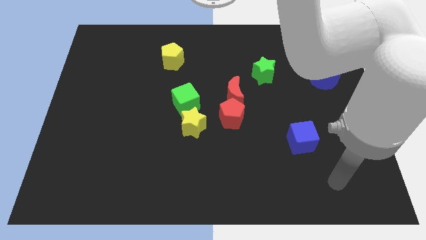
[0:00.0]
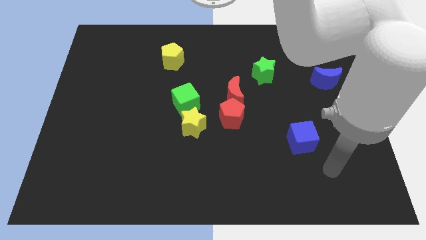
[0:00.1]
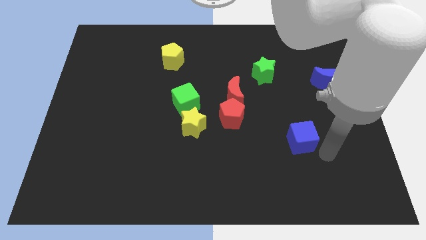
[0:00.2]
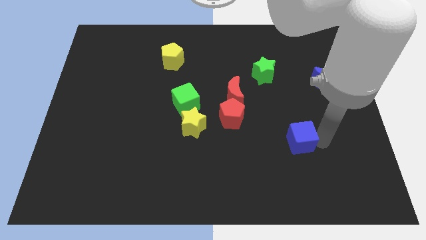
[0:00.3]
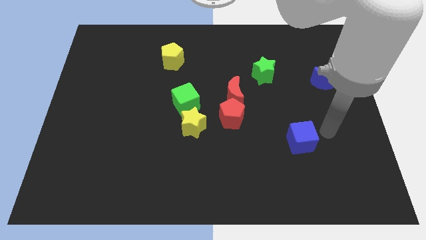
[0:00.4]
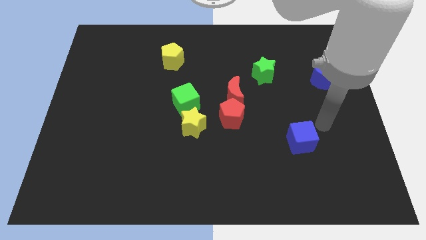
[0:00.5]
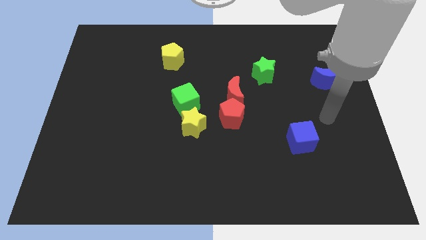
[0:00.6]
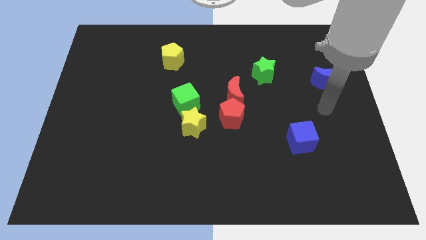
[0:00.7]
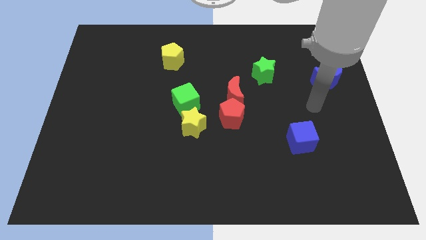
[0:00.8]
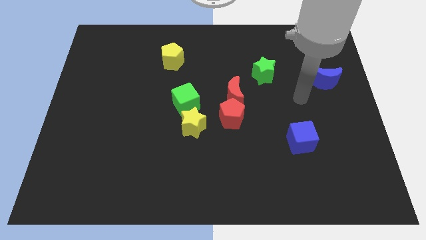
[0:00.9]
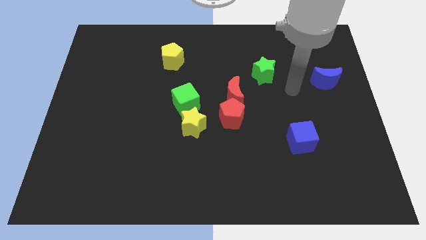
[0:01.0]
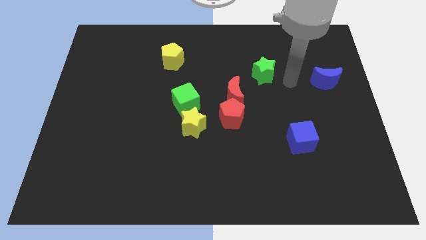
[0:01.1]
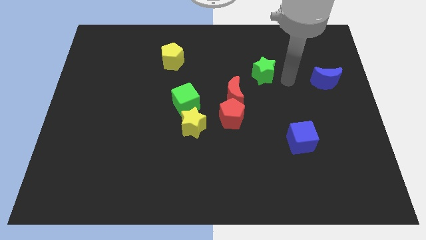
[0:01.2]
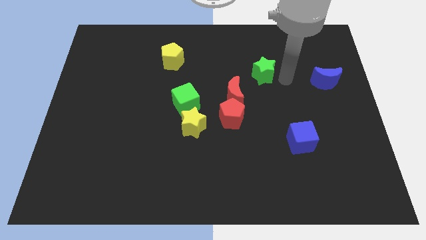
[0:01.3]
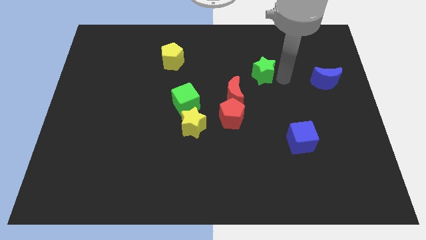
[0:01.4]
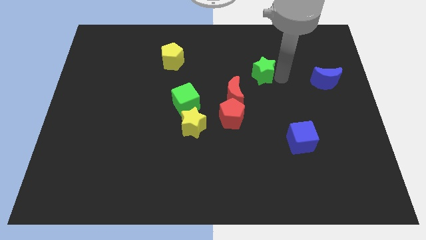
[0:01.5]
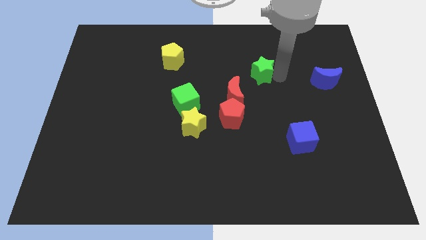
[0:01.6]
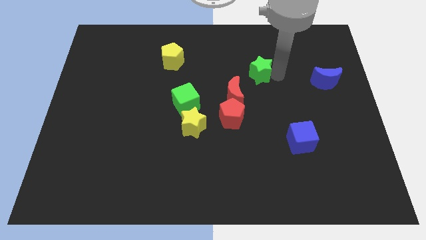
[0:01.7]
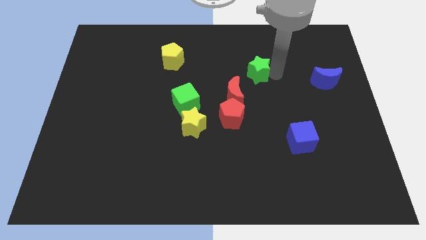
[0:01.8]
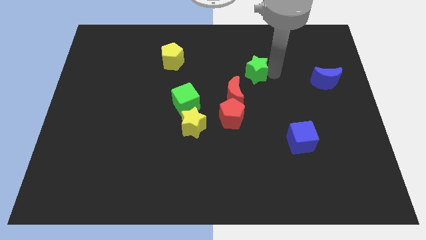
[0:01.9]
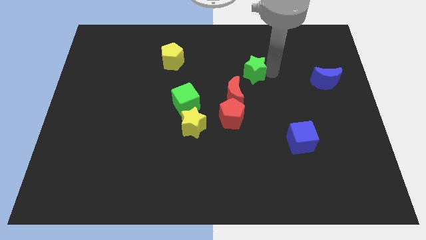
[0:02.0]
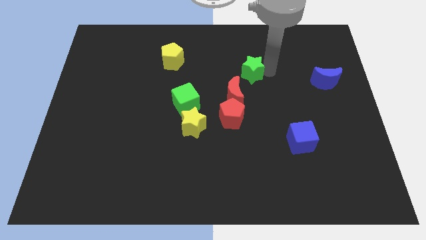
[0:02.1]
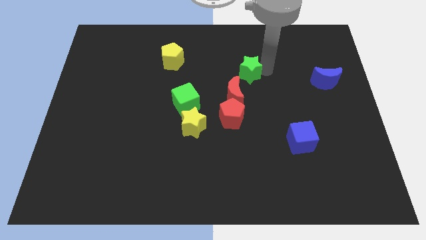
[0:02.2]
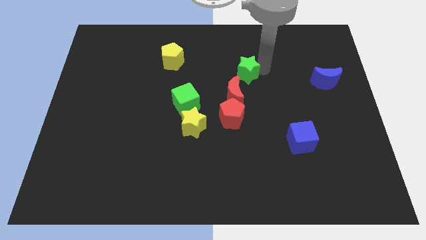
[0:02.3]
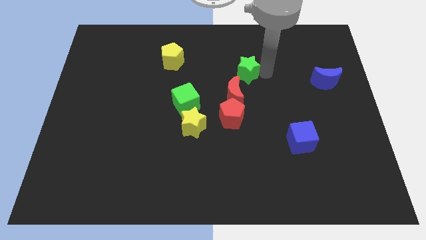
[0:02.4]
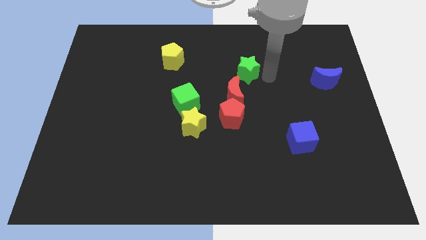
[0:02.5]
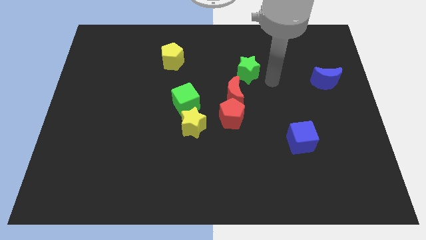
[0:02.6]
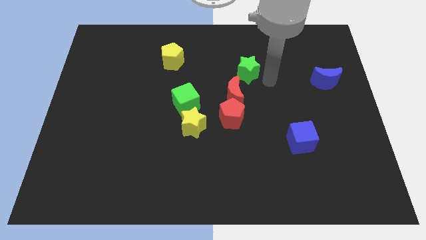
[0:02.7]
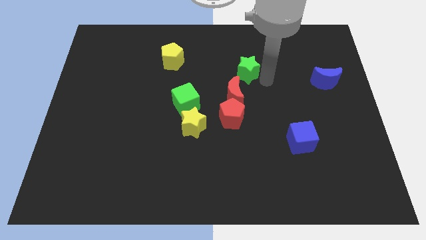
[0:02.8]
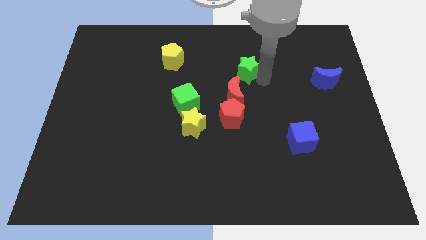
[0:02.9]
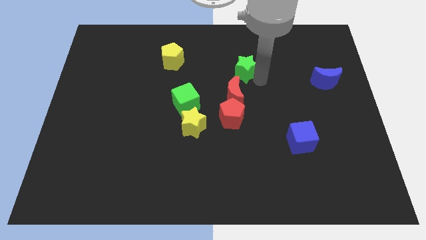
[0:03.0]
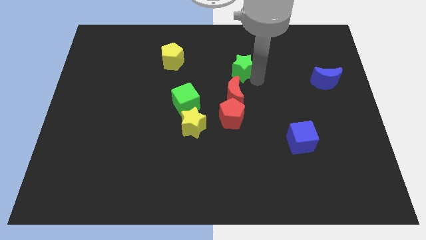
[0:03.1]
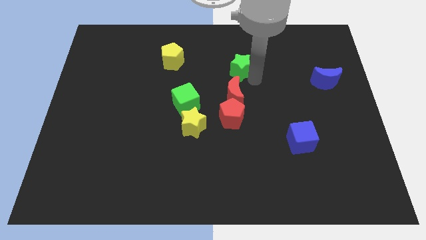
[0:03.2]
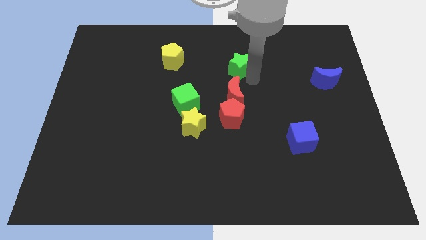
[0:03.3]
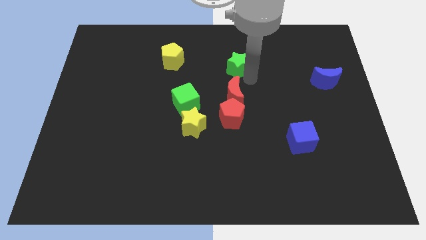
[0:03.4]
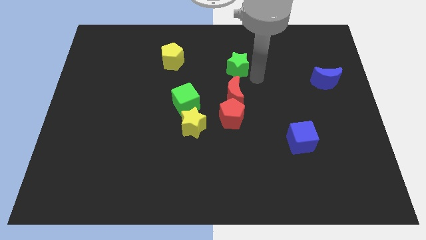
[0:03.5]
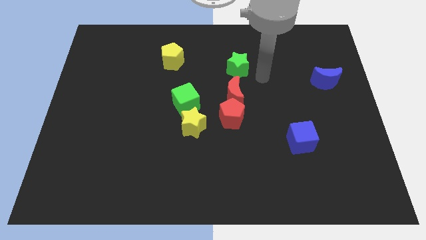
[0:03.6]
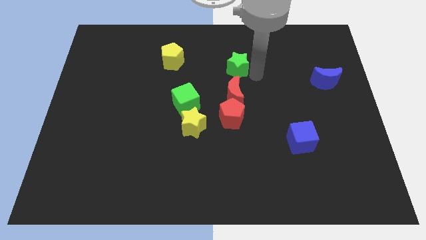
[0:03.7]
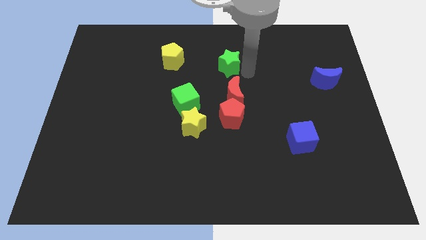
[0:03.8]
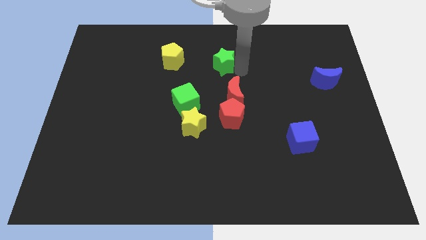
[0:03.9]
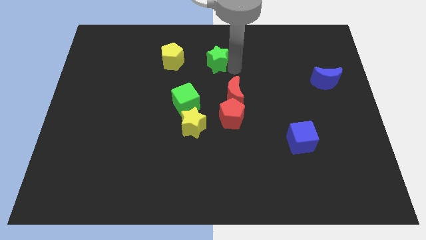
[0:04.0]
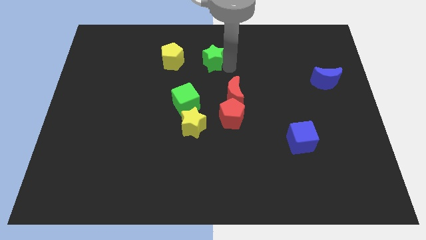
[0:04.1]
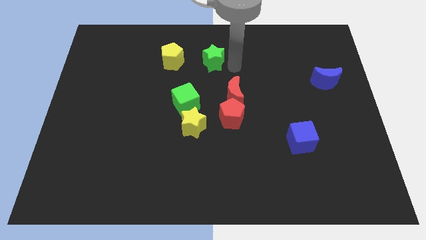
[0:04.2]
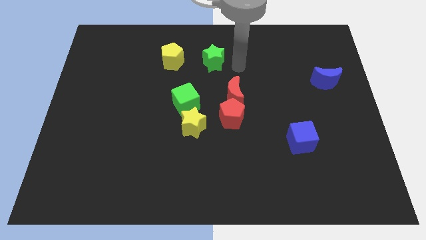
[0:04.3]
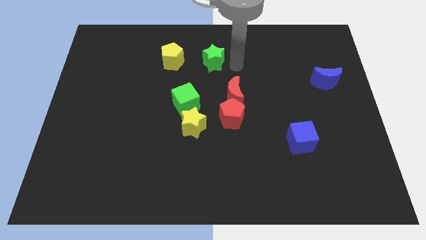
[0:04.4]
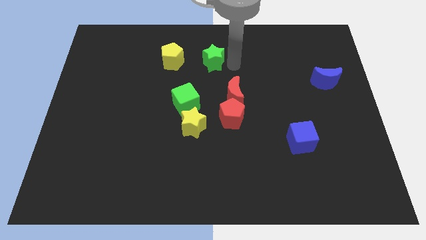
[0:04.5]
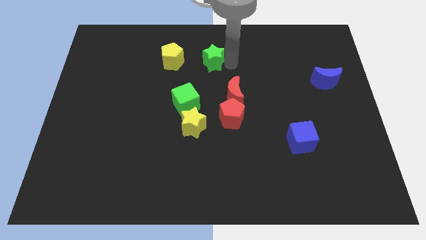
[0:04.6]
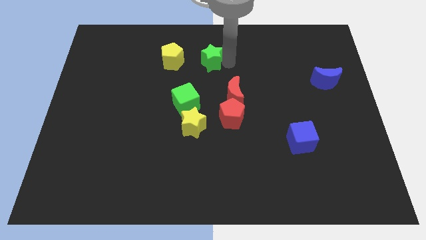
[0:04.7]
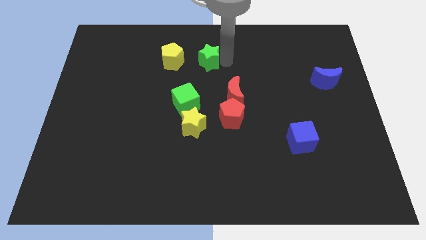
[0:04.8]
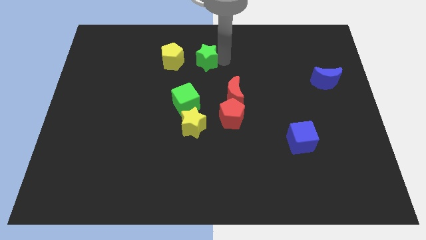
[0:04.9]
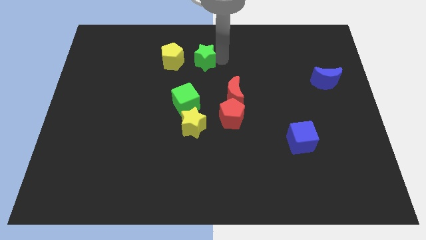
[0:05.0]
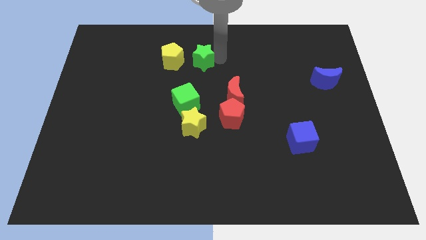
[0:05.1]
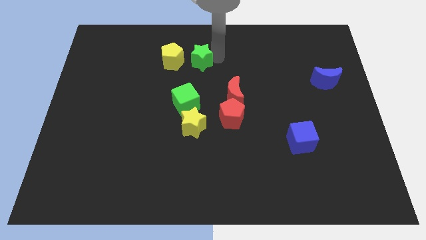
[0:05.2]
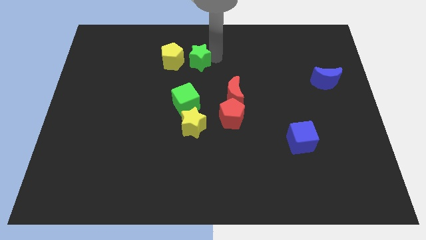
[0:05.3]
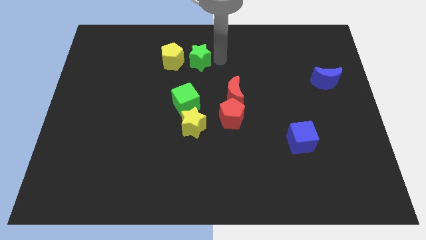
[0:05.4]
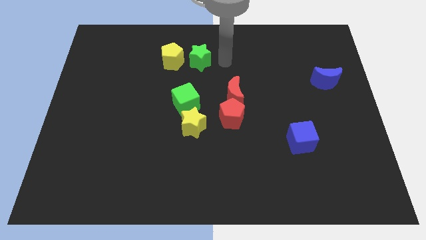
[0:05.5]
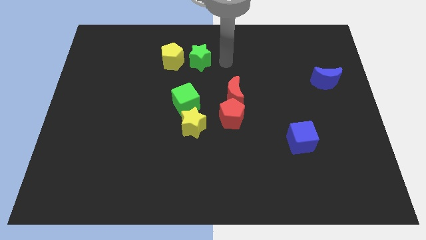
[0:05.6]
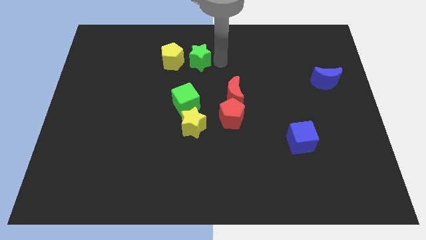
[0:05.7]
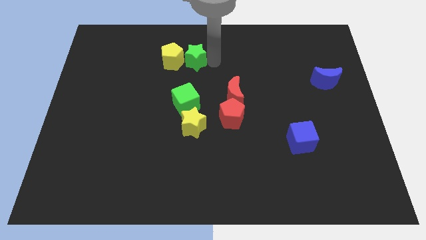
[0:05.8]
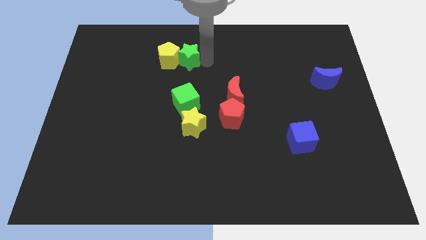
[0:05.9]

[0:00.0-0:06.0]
push the green star to the yellow pentagon

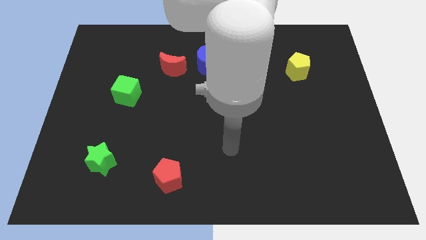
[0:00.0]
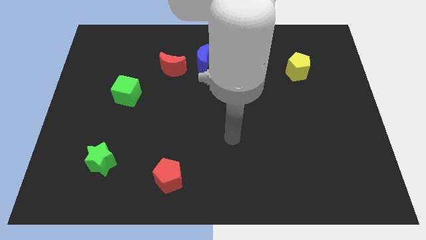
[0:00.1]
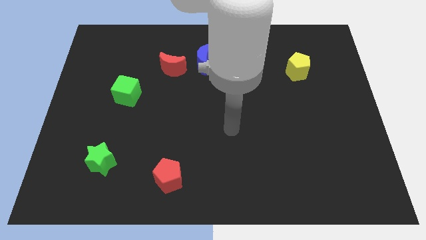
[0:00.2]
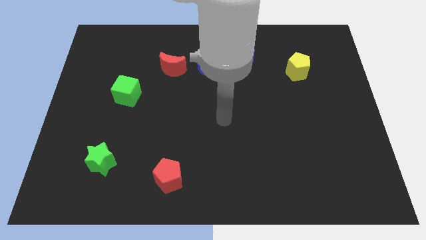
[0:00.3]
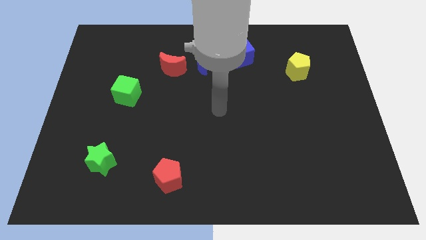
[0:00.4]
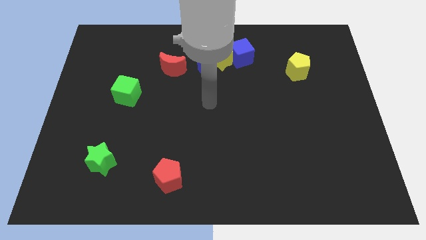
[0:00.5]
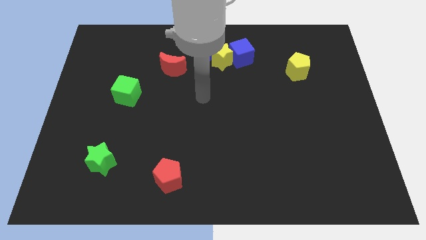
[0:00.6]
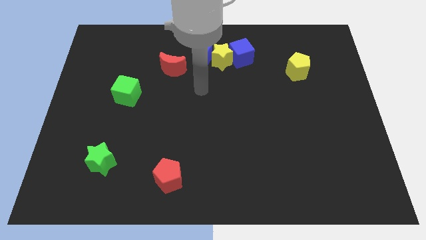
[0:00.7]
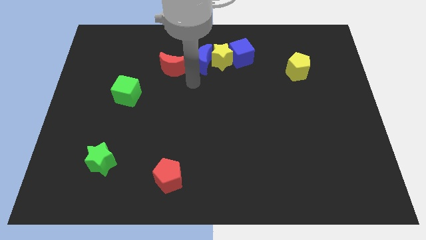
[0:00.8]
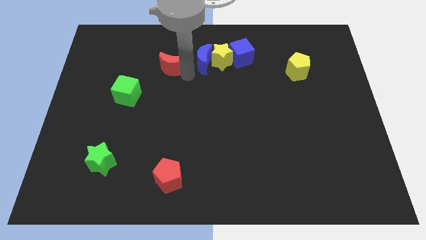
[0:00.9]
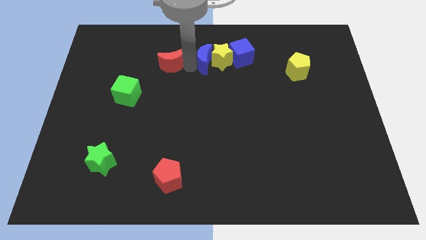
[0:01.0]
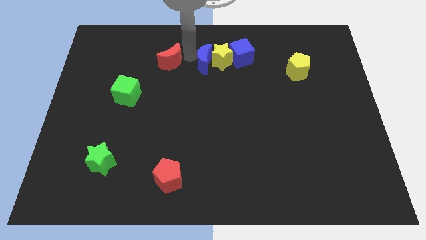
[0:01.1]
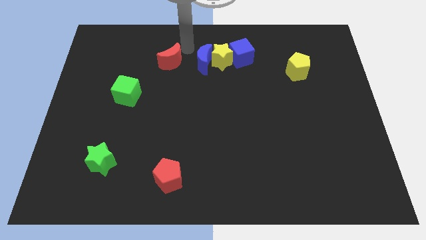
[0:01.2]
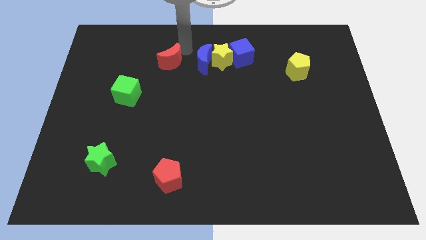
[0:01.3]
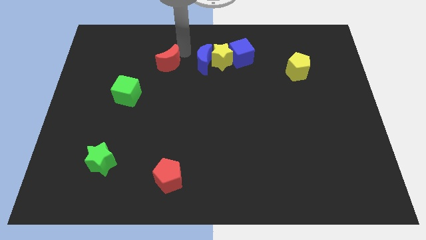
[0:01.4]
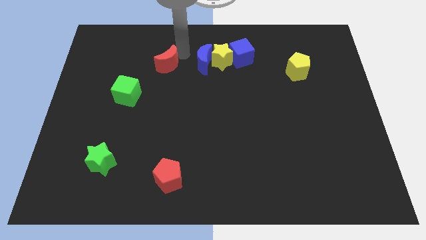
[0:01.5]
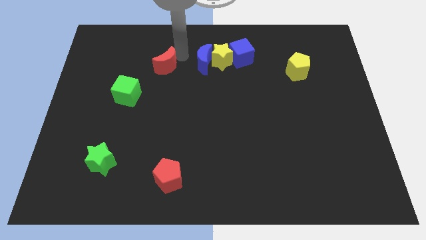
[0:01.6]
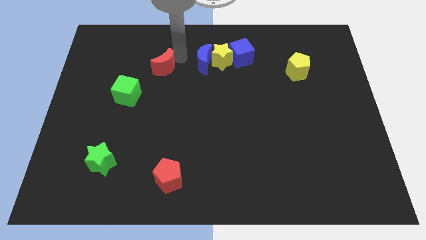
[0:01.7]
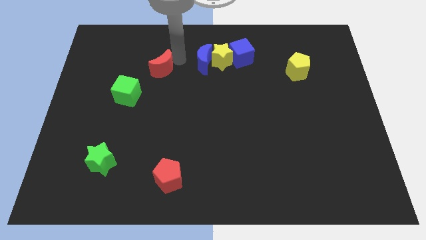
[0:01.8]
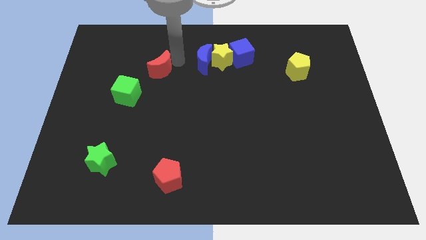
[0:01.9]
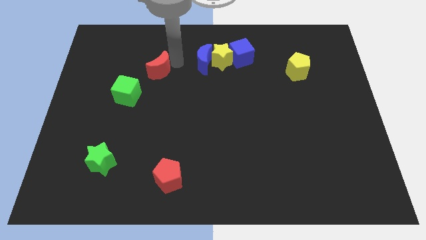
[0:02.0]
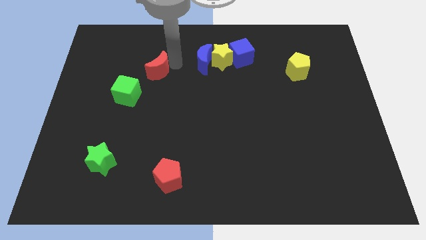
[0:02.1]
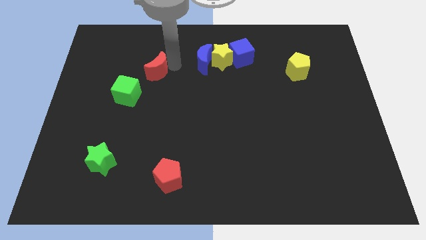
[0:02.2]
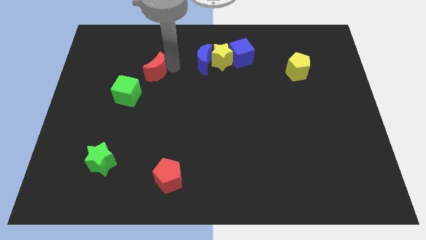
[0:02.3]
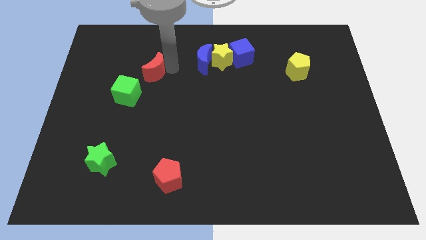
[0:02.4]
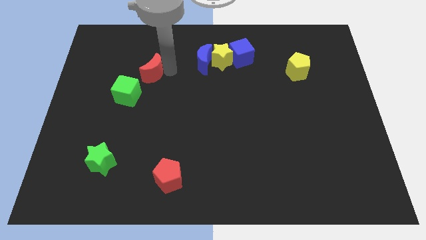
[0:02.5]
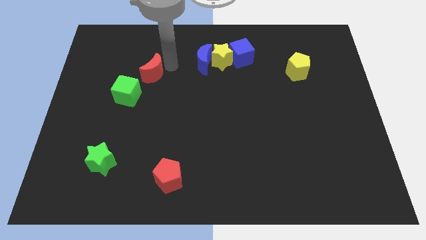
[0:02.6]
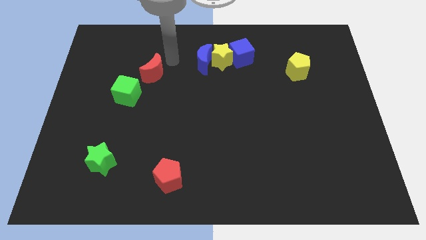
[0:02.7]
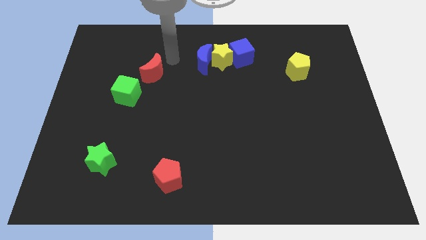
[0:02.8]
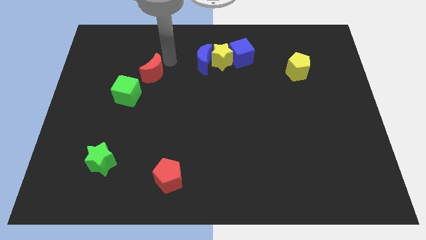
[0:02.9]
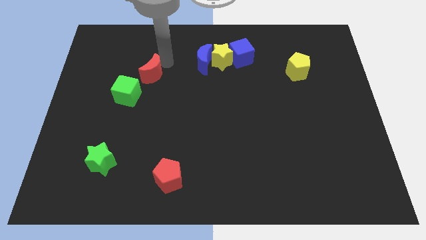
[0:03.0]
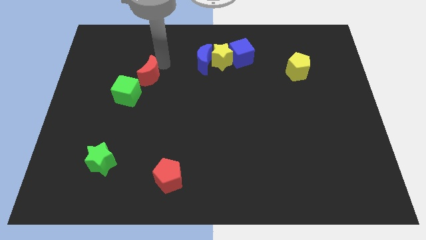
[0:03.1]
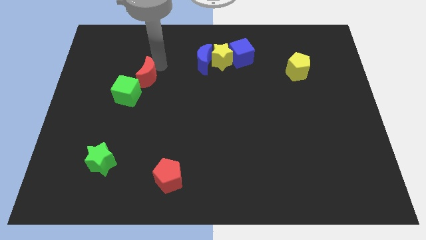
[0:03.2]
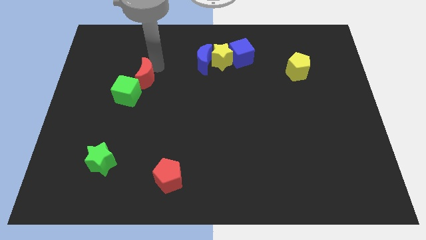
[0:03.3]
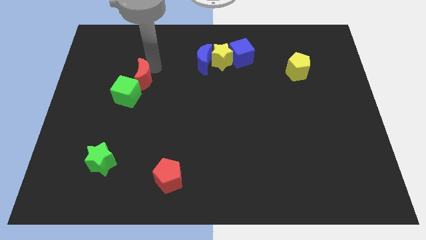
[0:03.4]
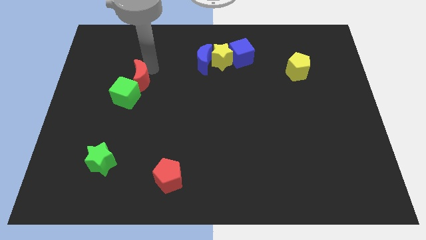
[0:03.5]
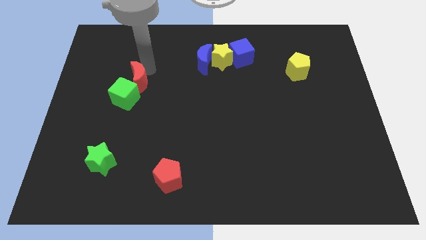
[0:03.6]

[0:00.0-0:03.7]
put the red moon to the green cube
